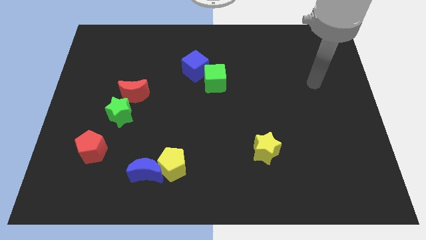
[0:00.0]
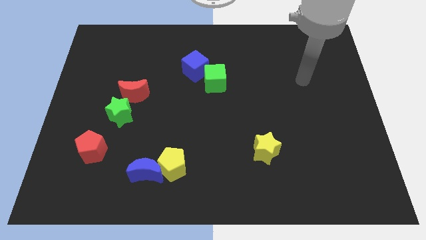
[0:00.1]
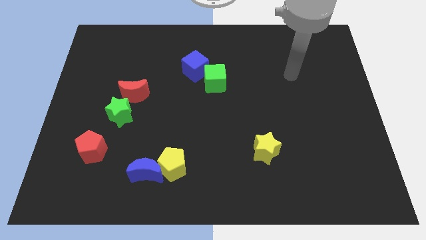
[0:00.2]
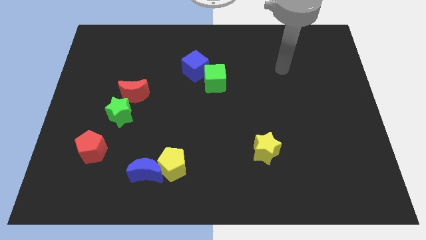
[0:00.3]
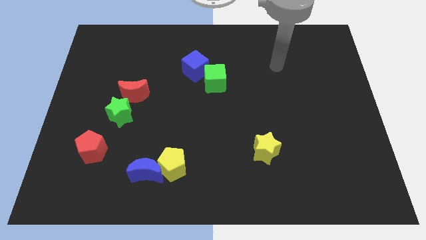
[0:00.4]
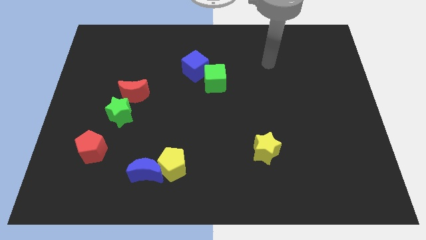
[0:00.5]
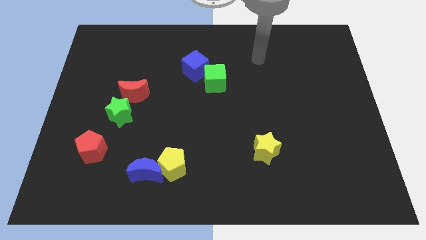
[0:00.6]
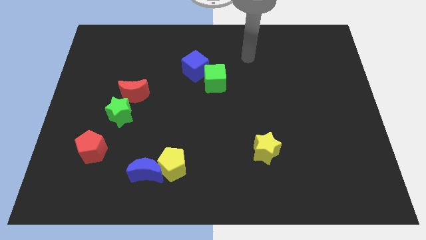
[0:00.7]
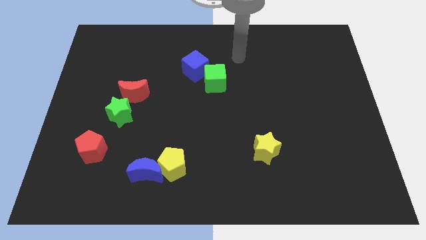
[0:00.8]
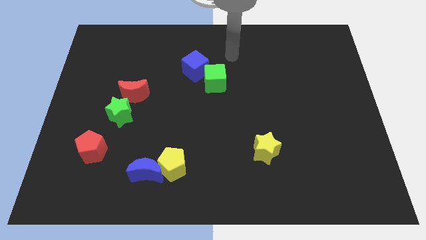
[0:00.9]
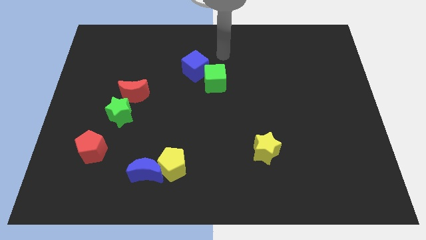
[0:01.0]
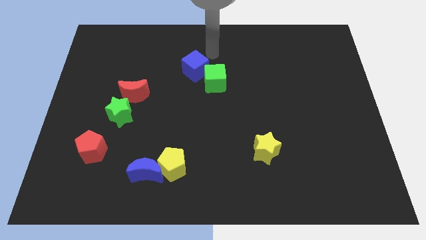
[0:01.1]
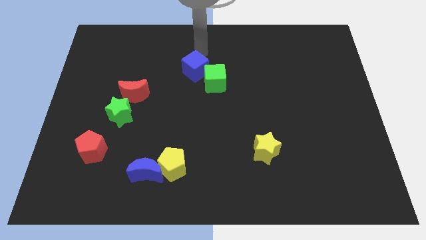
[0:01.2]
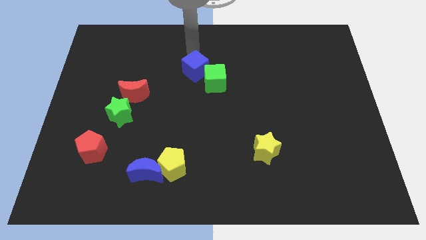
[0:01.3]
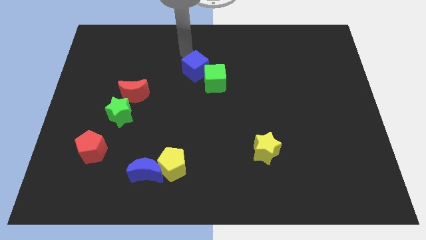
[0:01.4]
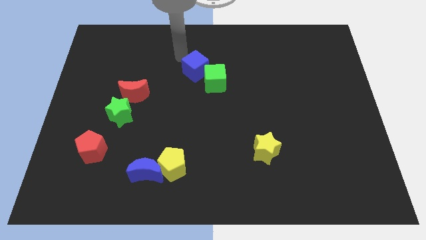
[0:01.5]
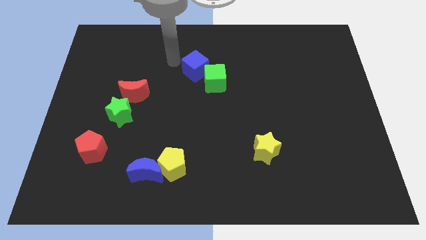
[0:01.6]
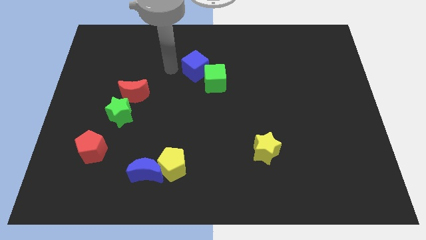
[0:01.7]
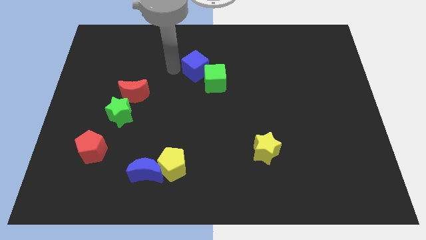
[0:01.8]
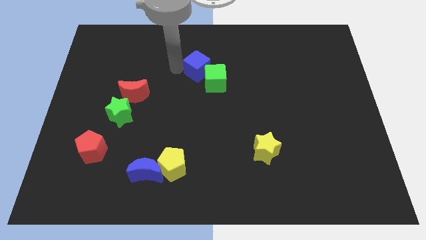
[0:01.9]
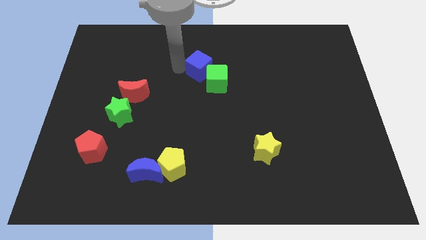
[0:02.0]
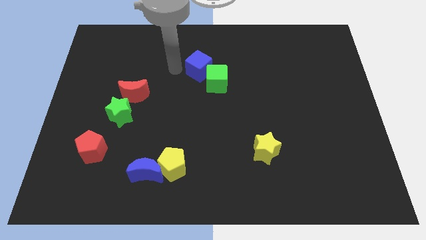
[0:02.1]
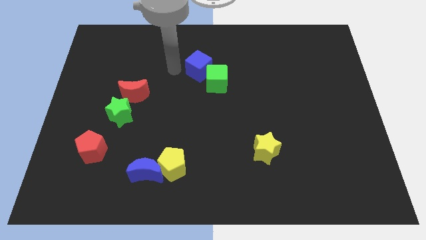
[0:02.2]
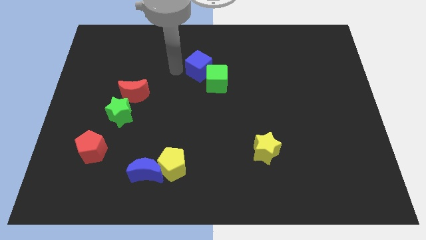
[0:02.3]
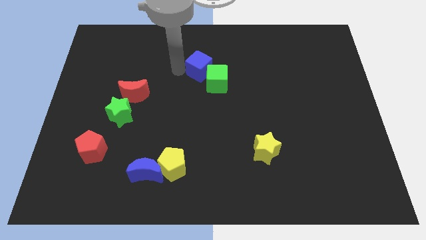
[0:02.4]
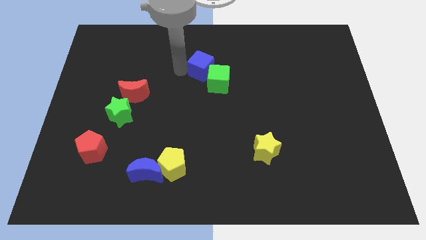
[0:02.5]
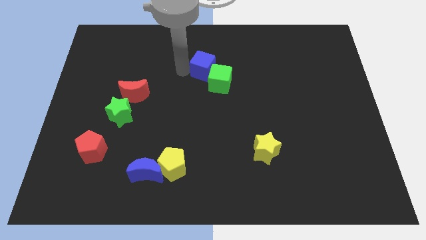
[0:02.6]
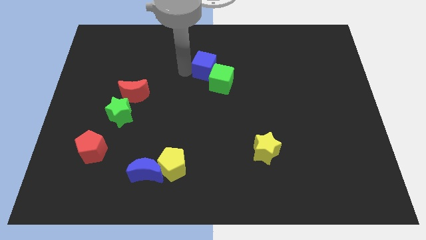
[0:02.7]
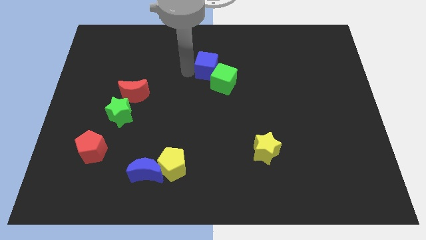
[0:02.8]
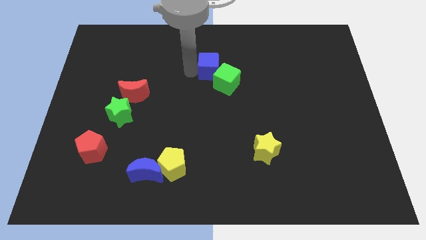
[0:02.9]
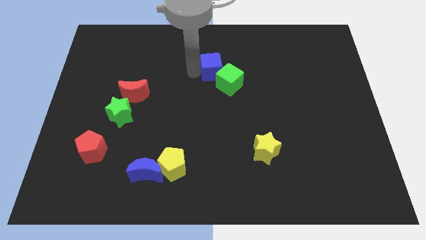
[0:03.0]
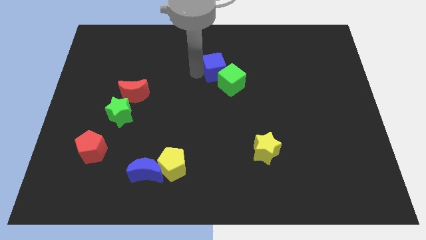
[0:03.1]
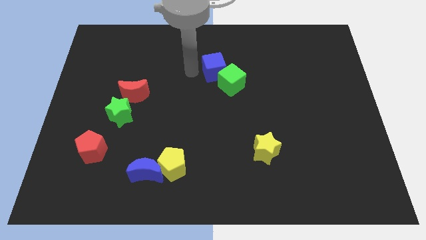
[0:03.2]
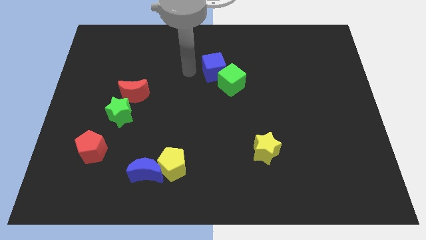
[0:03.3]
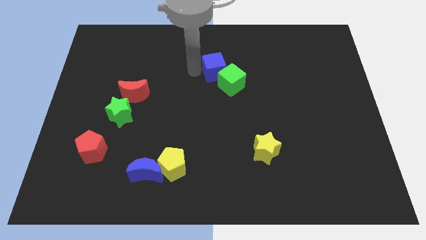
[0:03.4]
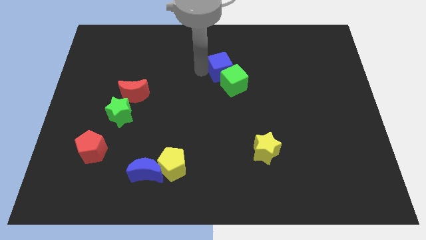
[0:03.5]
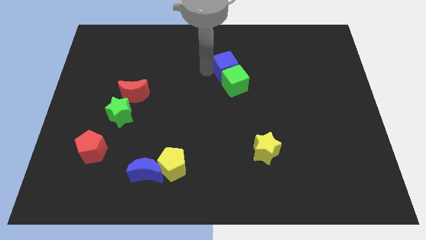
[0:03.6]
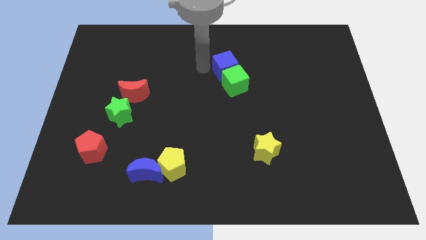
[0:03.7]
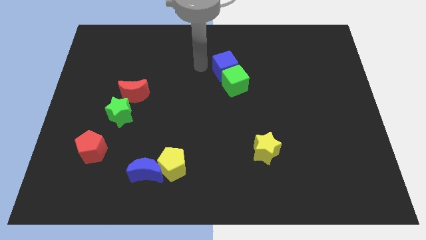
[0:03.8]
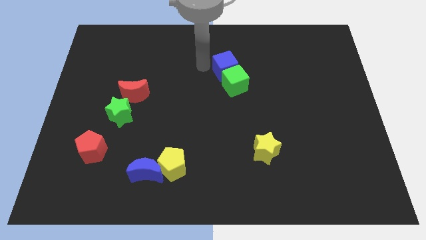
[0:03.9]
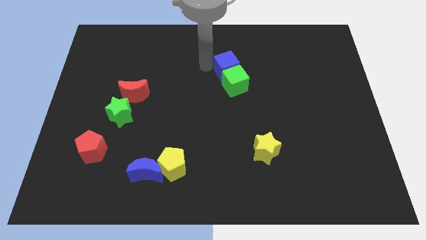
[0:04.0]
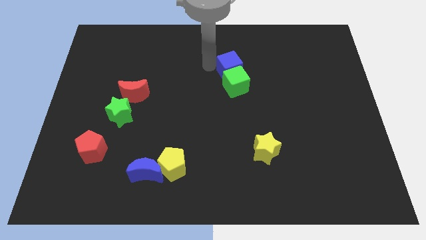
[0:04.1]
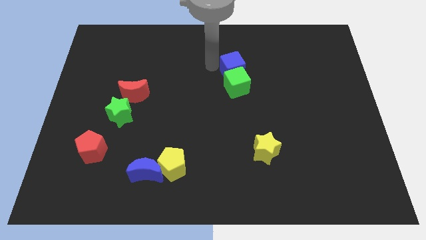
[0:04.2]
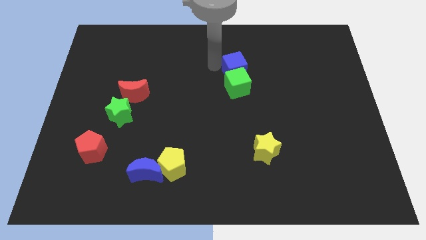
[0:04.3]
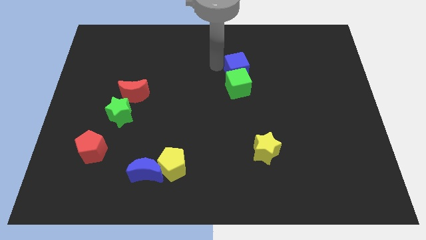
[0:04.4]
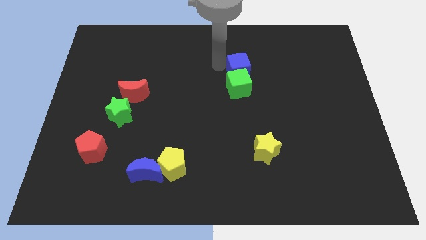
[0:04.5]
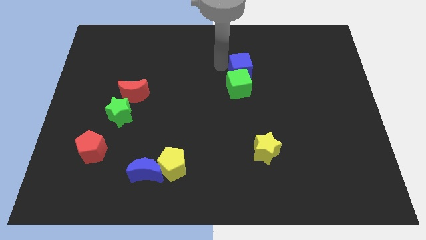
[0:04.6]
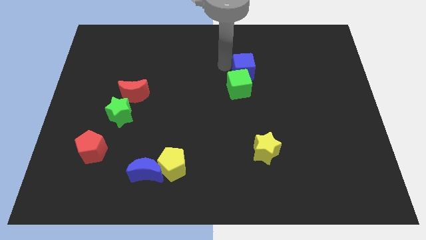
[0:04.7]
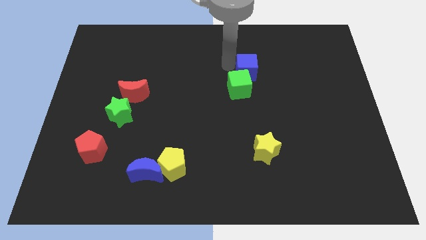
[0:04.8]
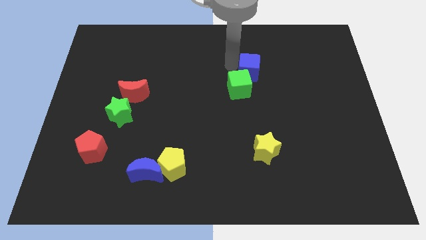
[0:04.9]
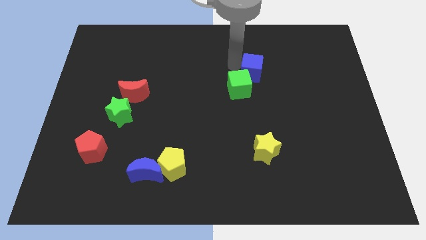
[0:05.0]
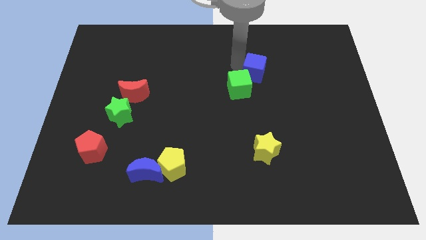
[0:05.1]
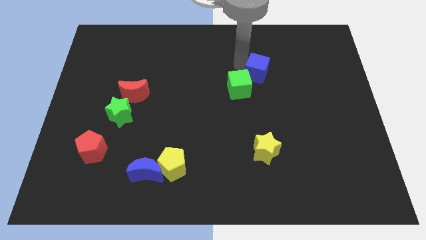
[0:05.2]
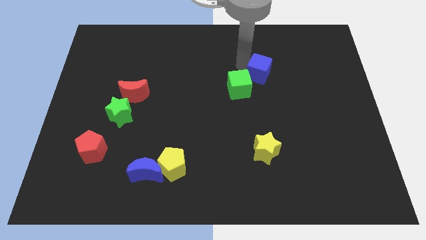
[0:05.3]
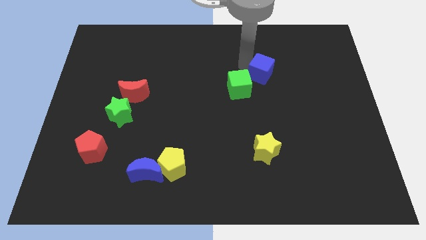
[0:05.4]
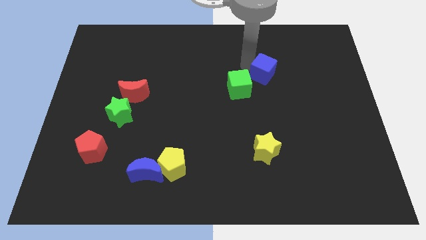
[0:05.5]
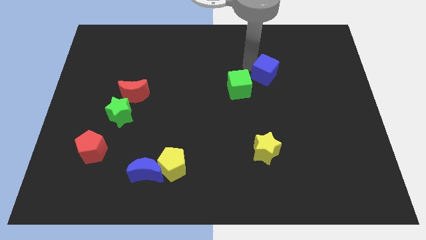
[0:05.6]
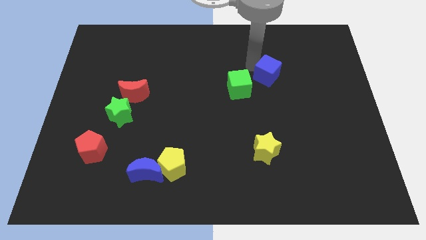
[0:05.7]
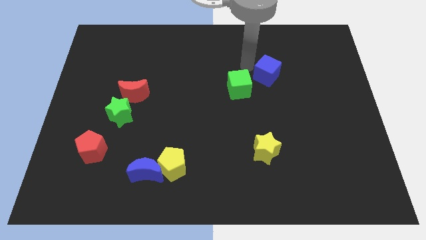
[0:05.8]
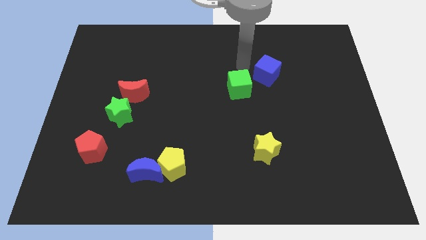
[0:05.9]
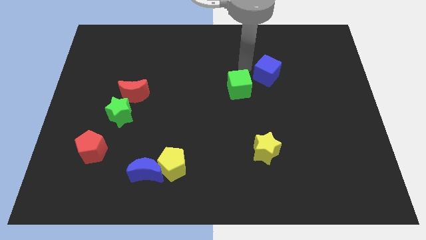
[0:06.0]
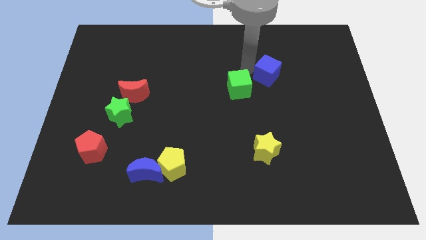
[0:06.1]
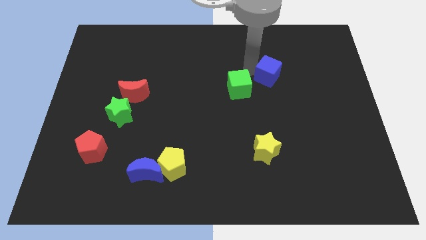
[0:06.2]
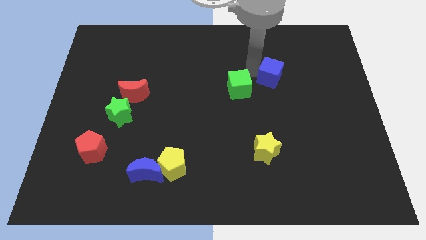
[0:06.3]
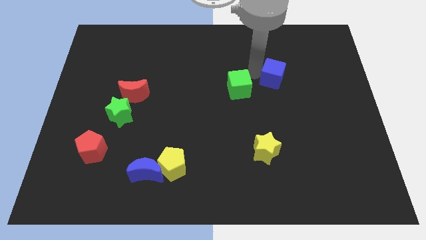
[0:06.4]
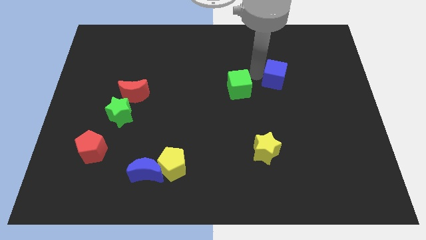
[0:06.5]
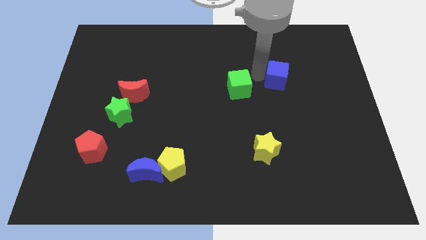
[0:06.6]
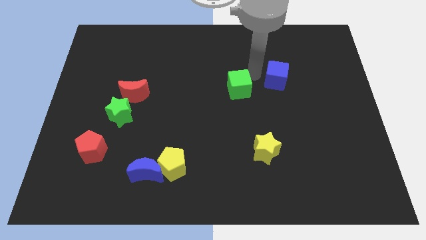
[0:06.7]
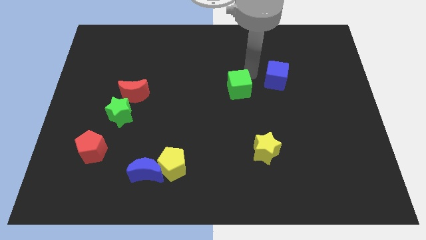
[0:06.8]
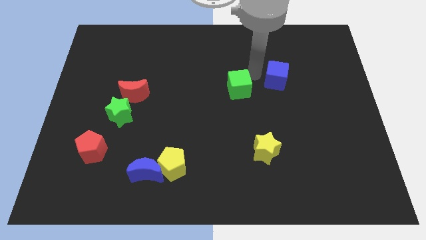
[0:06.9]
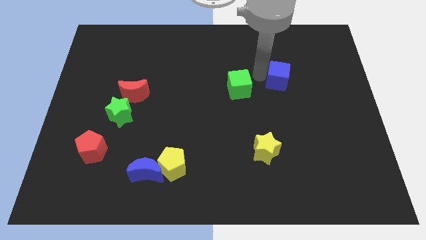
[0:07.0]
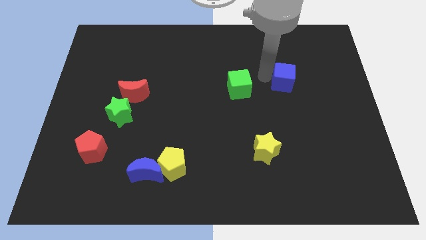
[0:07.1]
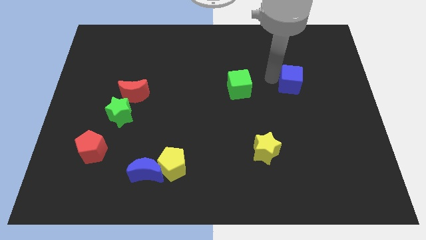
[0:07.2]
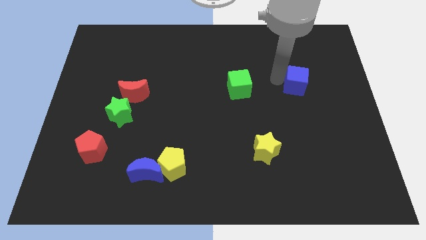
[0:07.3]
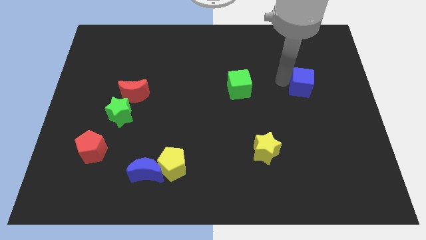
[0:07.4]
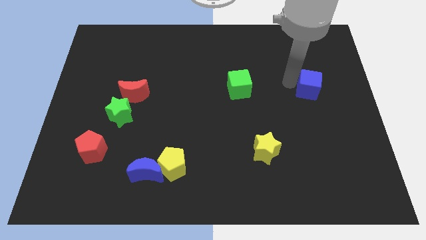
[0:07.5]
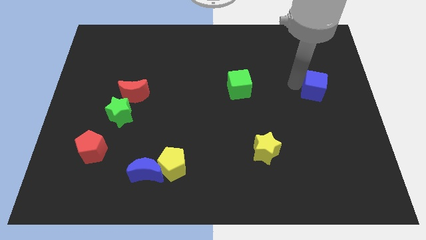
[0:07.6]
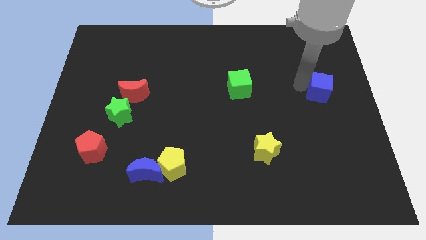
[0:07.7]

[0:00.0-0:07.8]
put the blue cube to the center right
